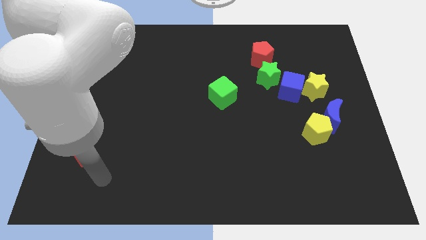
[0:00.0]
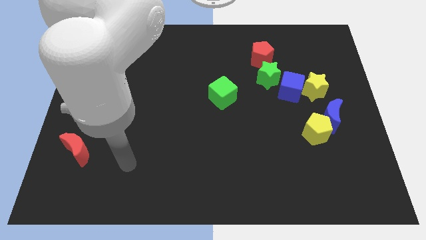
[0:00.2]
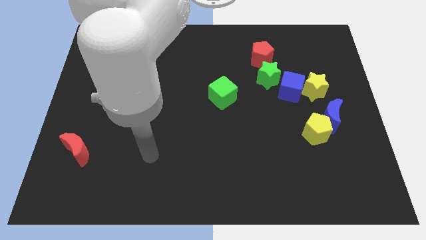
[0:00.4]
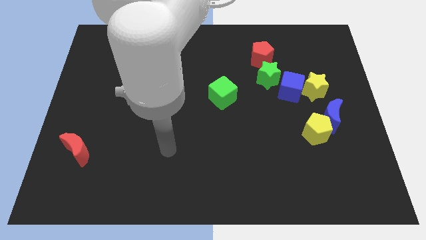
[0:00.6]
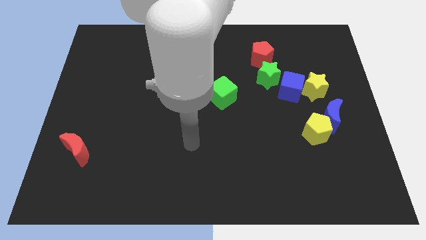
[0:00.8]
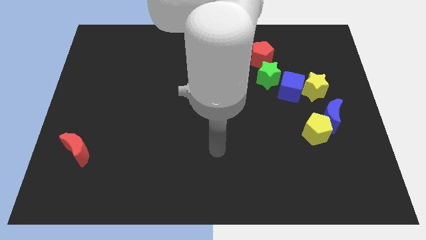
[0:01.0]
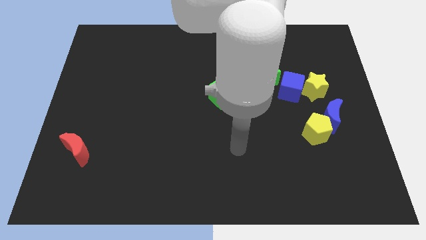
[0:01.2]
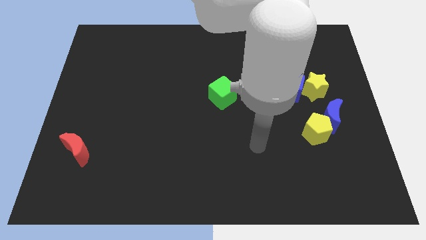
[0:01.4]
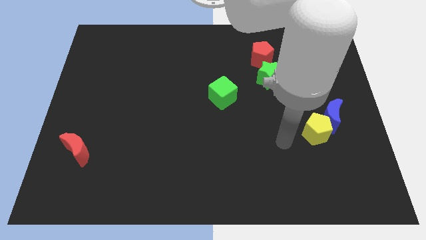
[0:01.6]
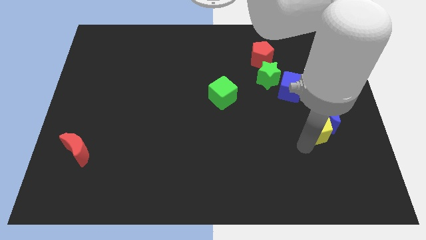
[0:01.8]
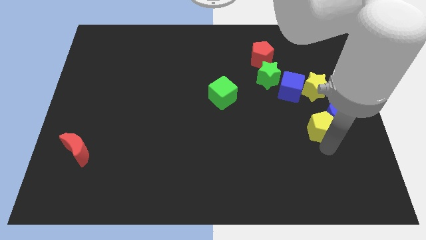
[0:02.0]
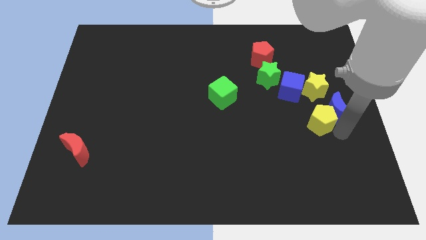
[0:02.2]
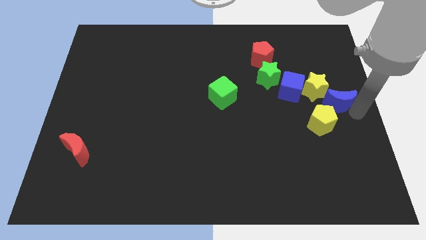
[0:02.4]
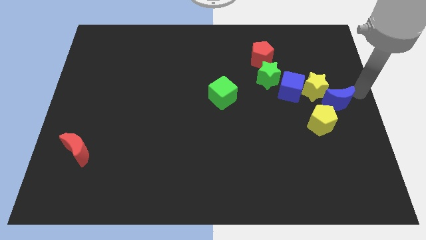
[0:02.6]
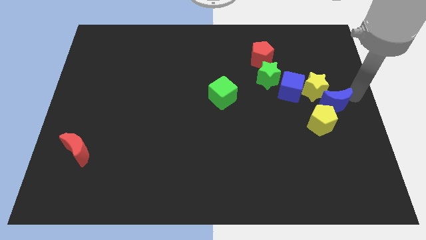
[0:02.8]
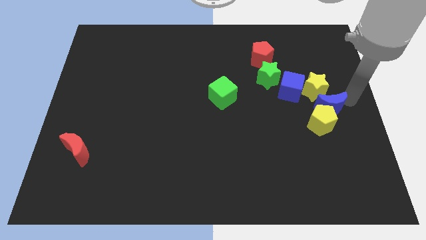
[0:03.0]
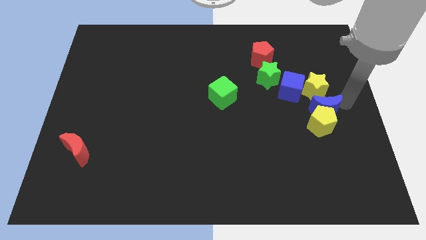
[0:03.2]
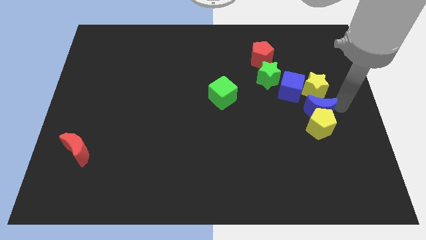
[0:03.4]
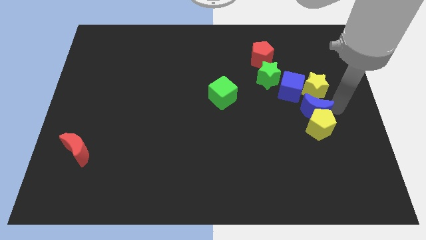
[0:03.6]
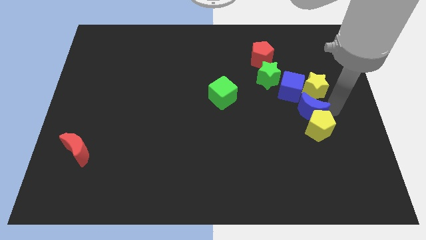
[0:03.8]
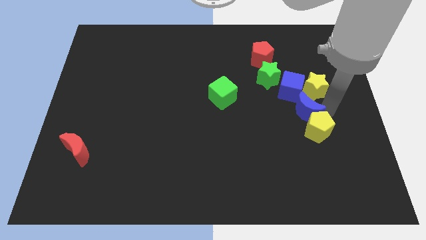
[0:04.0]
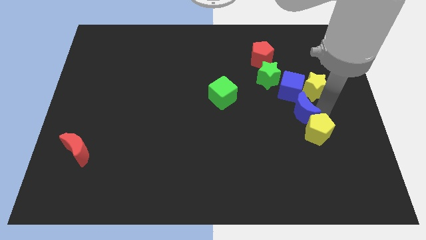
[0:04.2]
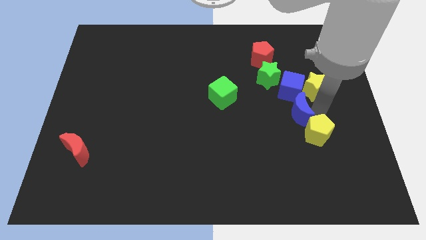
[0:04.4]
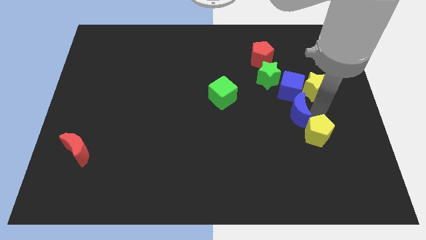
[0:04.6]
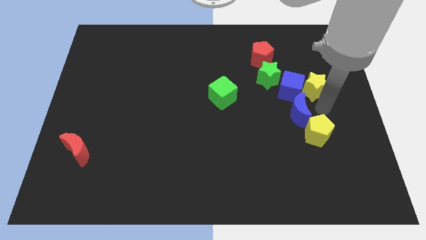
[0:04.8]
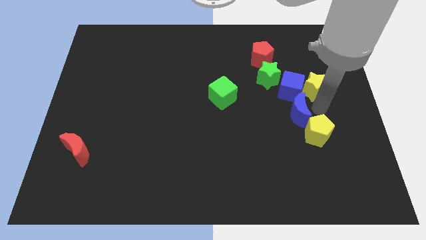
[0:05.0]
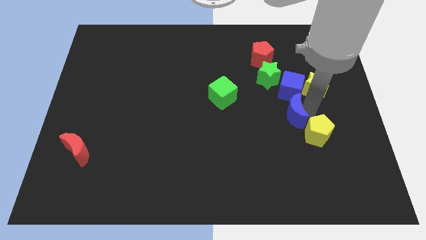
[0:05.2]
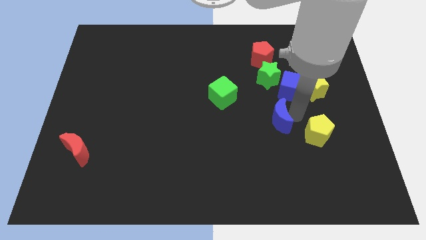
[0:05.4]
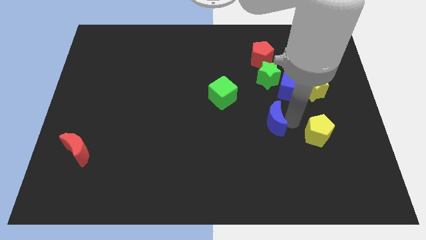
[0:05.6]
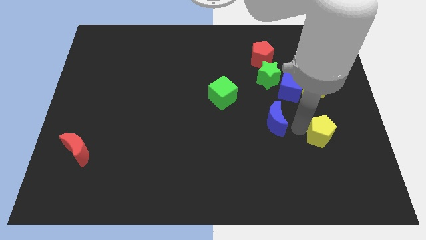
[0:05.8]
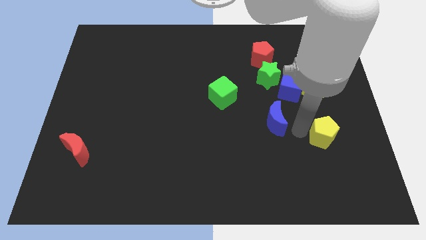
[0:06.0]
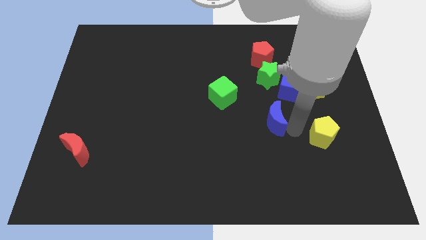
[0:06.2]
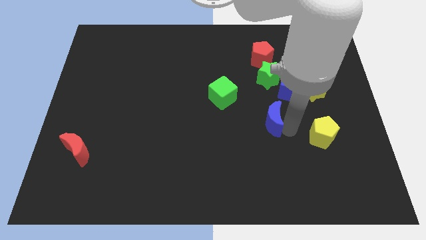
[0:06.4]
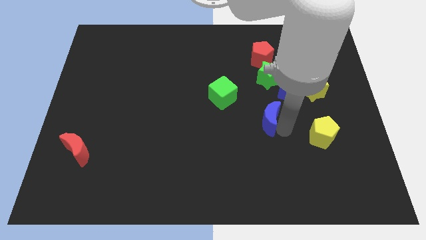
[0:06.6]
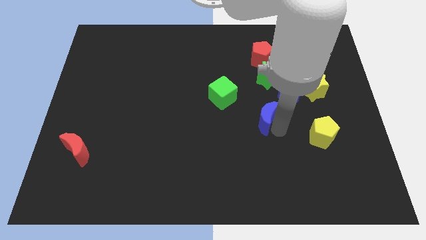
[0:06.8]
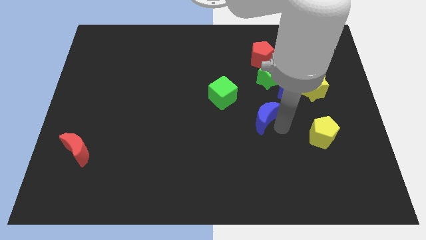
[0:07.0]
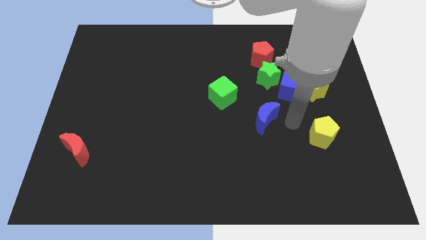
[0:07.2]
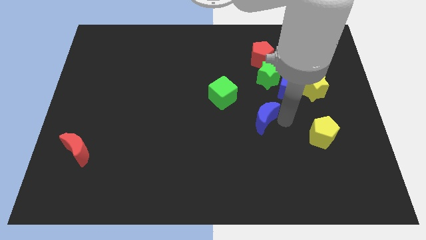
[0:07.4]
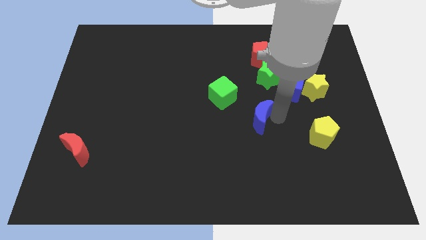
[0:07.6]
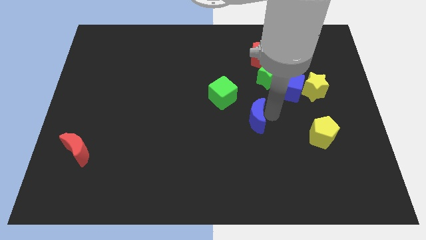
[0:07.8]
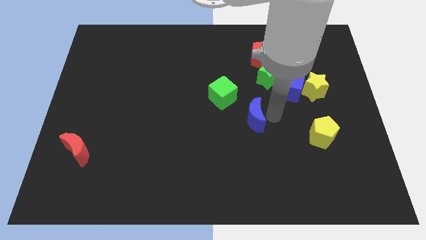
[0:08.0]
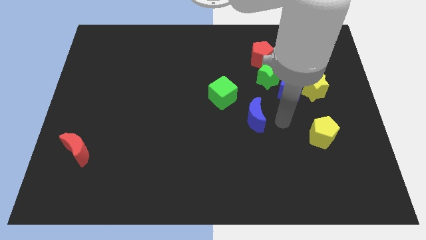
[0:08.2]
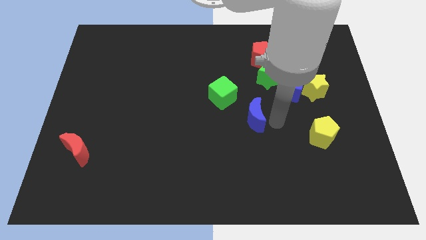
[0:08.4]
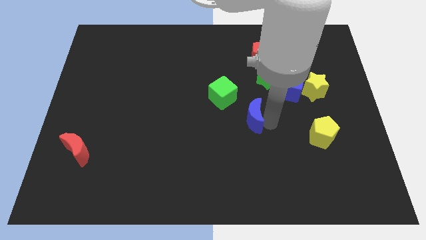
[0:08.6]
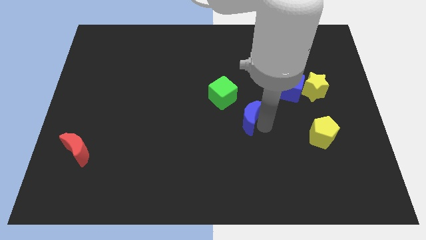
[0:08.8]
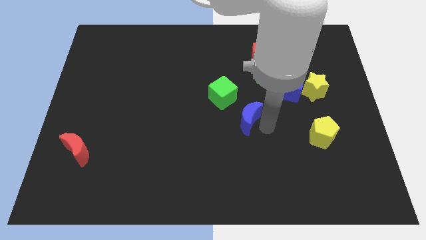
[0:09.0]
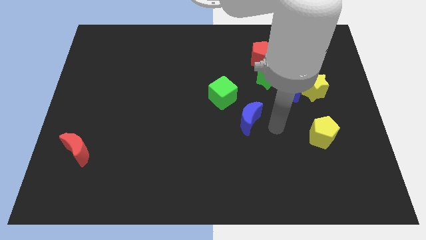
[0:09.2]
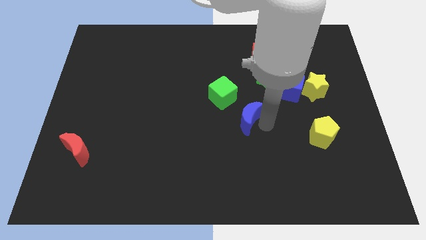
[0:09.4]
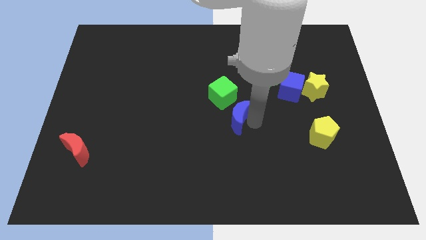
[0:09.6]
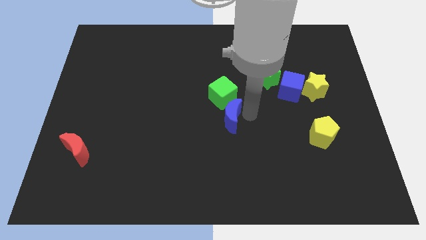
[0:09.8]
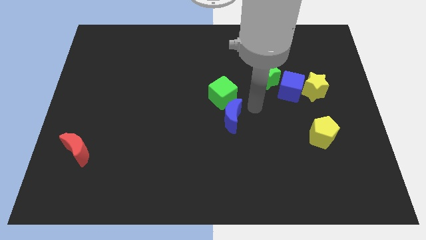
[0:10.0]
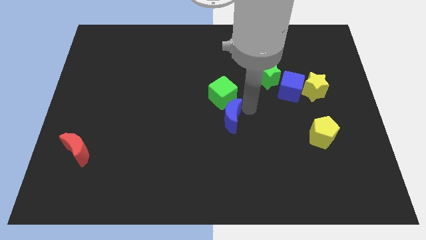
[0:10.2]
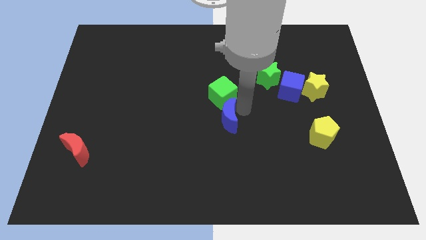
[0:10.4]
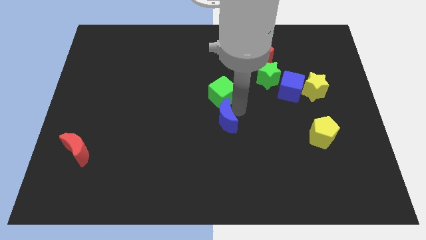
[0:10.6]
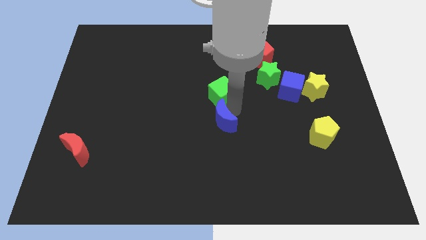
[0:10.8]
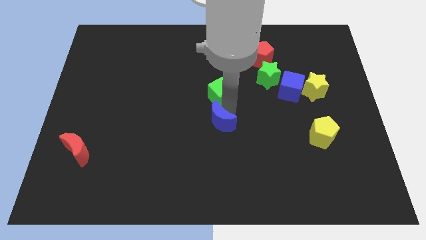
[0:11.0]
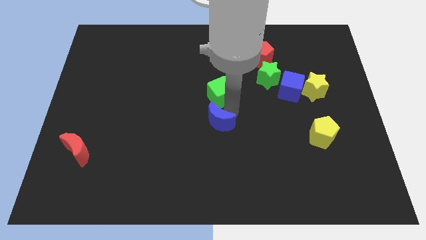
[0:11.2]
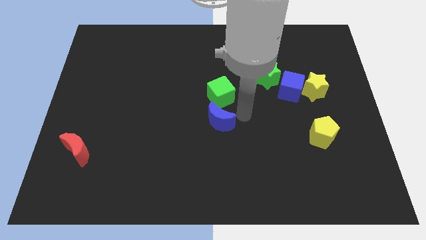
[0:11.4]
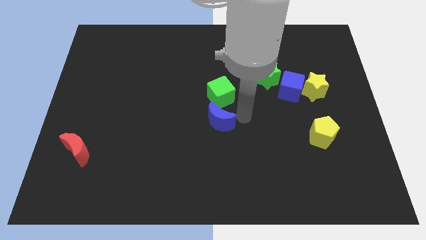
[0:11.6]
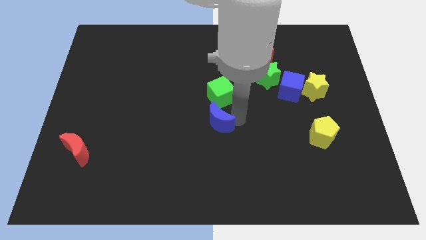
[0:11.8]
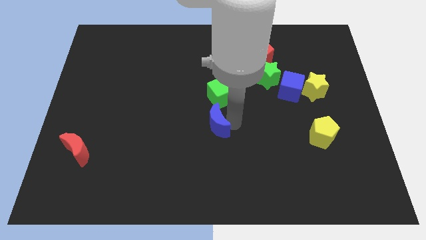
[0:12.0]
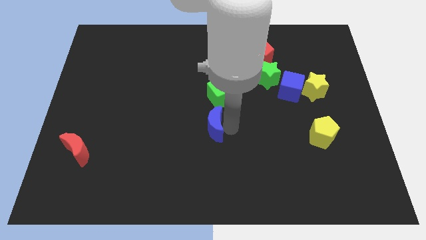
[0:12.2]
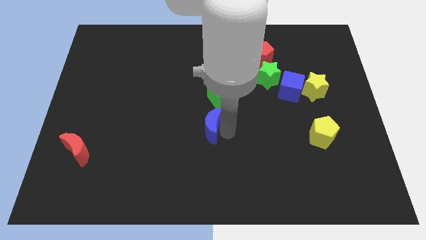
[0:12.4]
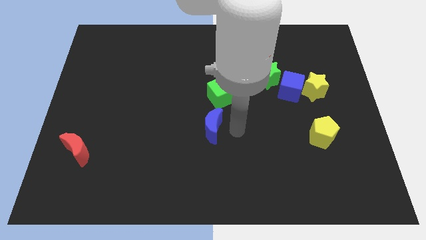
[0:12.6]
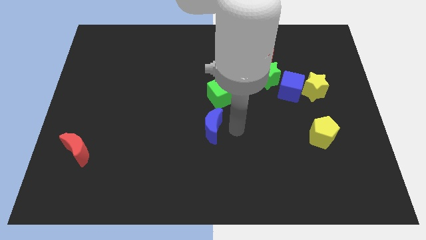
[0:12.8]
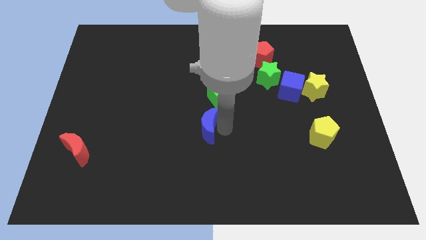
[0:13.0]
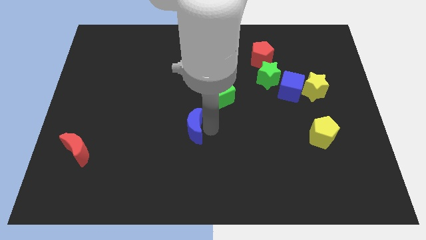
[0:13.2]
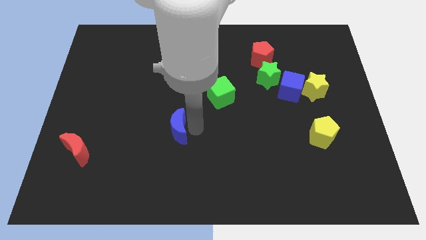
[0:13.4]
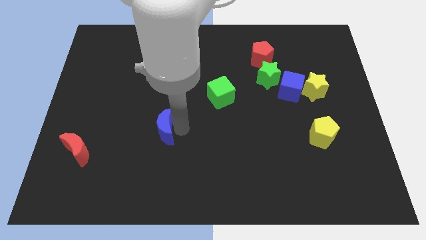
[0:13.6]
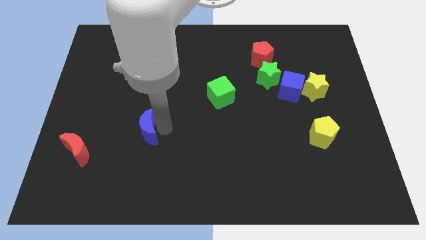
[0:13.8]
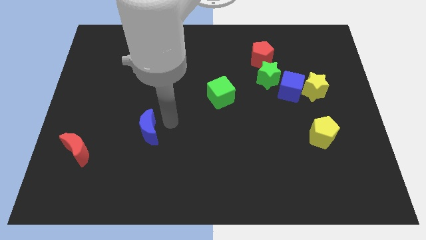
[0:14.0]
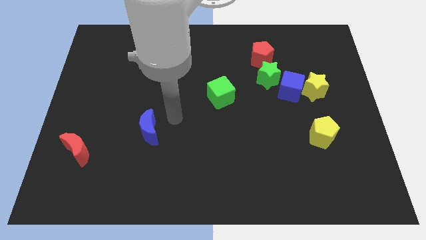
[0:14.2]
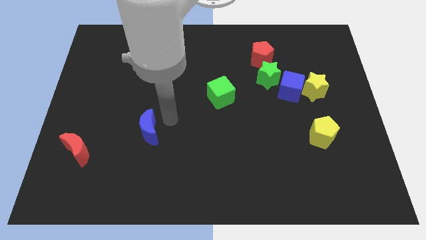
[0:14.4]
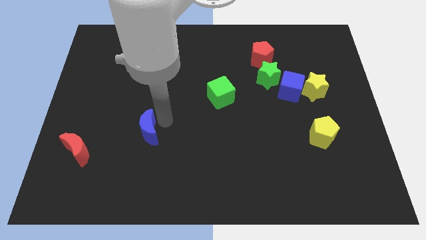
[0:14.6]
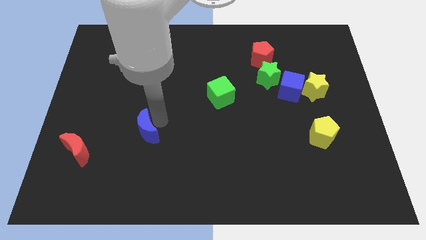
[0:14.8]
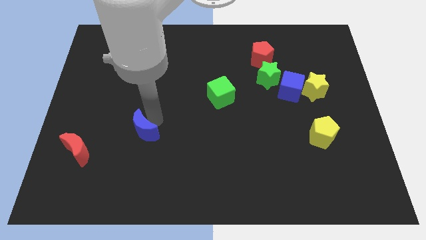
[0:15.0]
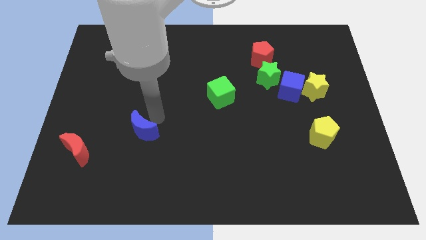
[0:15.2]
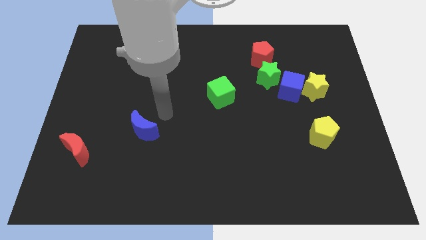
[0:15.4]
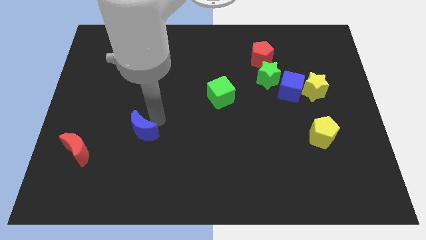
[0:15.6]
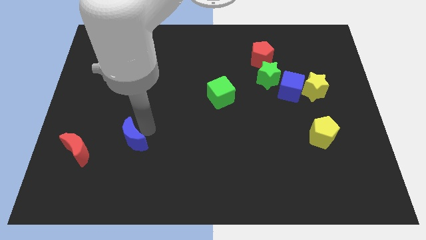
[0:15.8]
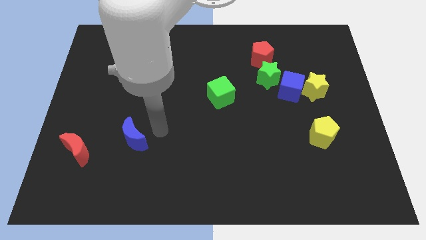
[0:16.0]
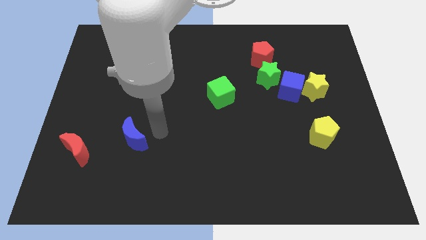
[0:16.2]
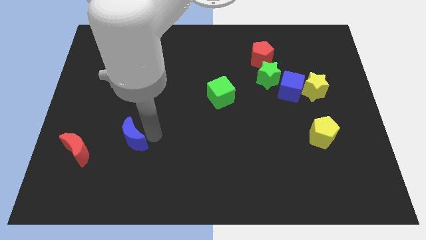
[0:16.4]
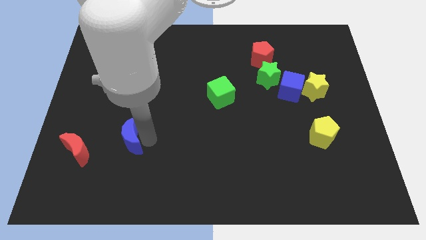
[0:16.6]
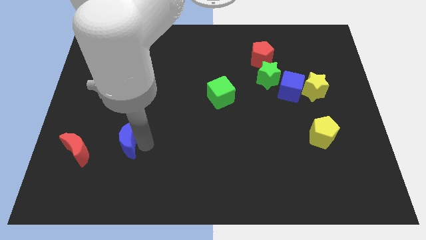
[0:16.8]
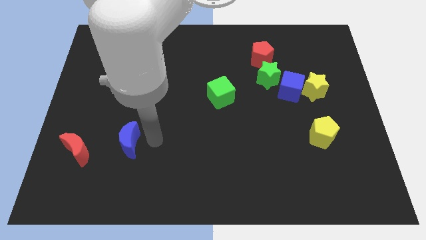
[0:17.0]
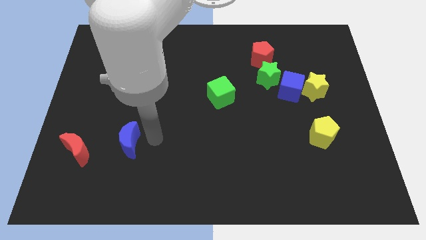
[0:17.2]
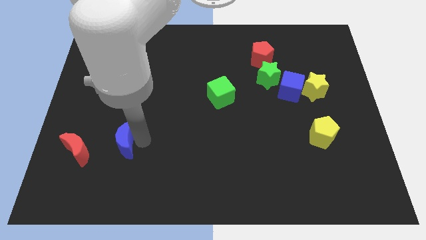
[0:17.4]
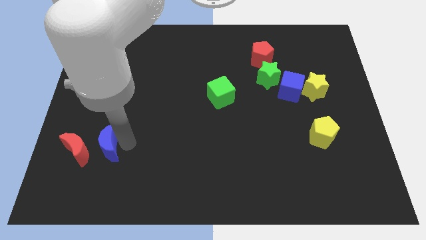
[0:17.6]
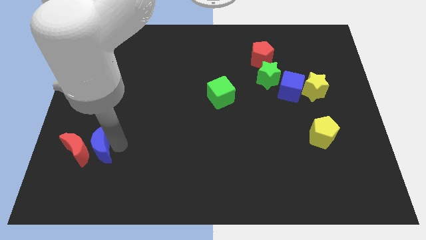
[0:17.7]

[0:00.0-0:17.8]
put the blue moon close to the red moon
